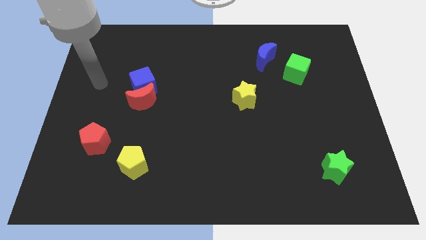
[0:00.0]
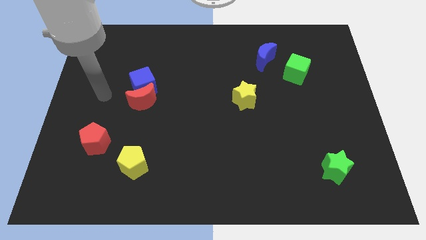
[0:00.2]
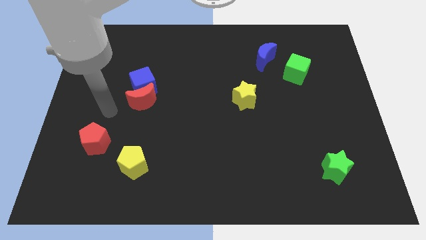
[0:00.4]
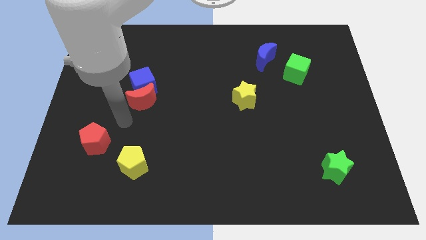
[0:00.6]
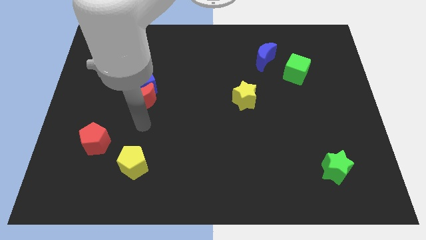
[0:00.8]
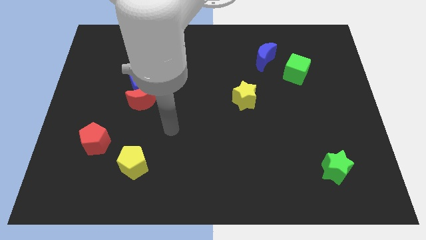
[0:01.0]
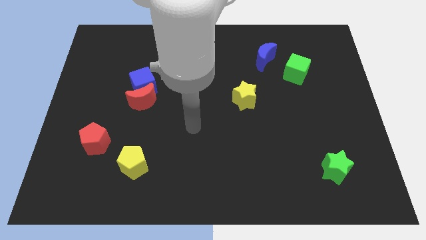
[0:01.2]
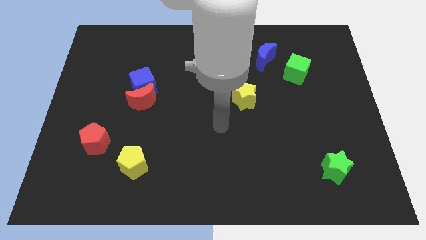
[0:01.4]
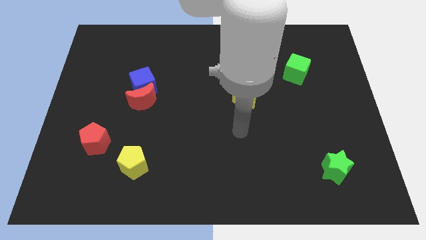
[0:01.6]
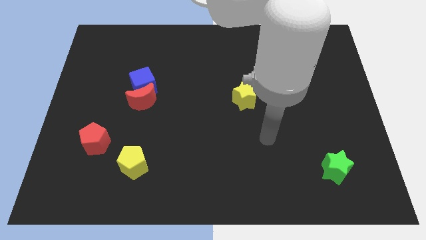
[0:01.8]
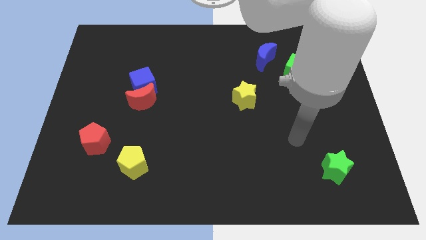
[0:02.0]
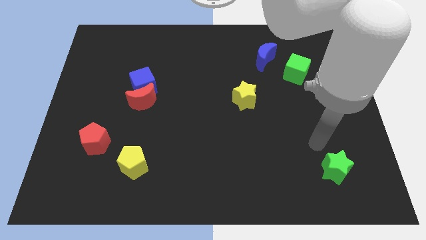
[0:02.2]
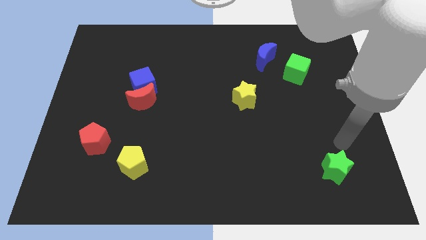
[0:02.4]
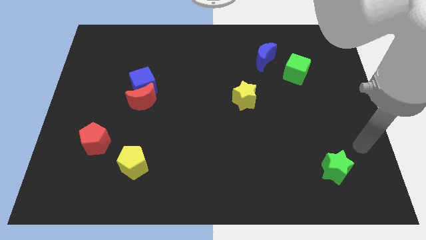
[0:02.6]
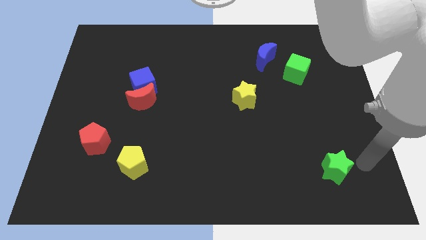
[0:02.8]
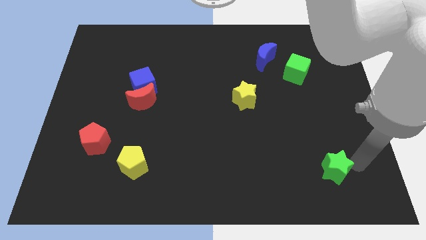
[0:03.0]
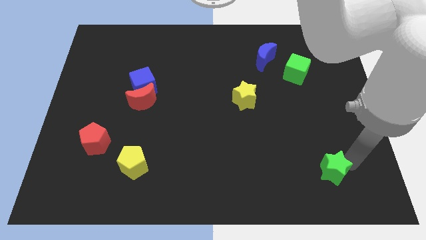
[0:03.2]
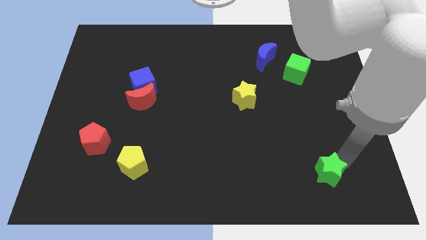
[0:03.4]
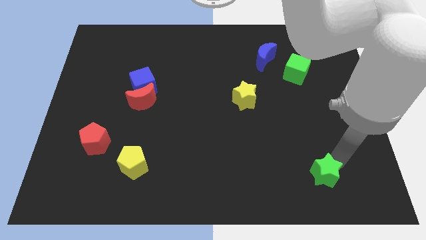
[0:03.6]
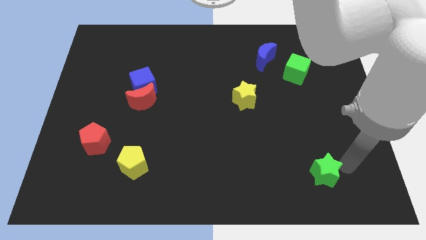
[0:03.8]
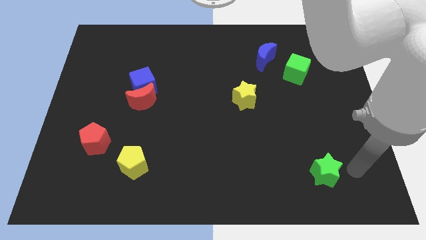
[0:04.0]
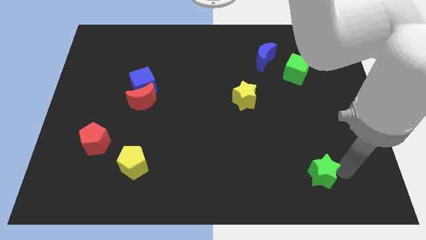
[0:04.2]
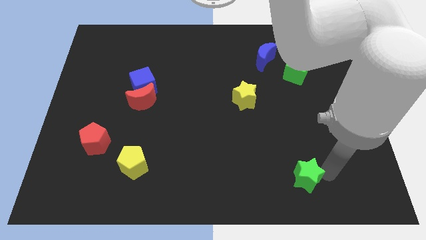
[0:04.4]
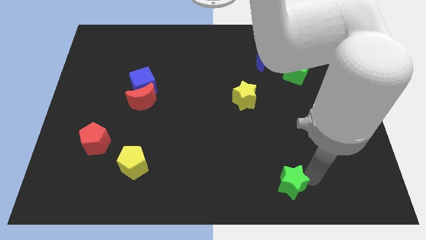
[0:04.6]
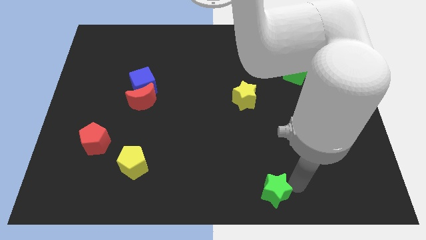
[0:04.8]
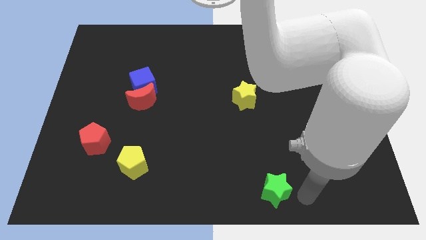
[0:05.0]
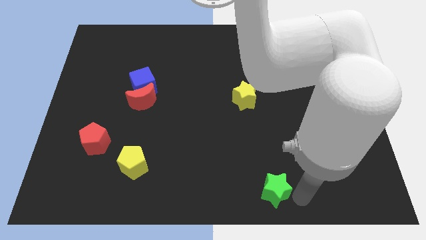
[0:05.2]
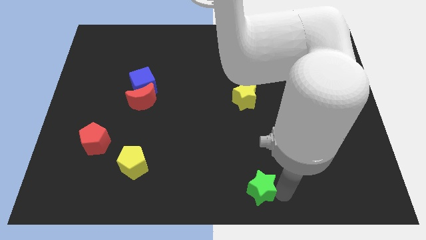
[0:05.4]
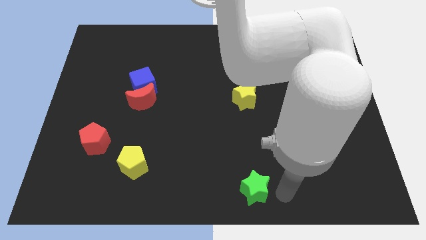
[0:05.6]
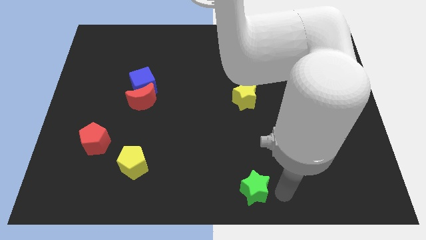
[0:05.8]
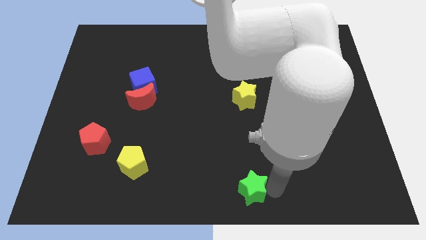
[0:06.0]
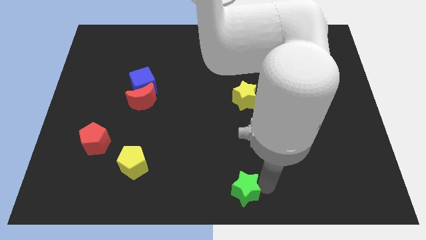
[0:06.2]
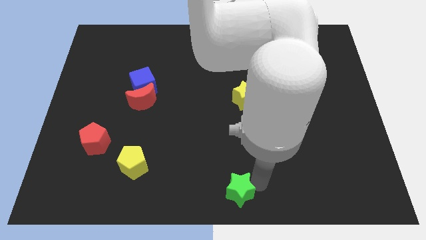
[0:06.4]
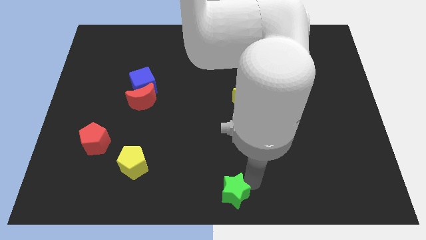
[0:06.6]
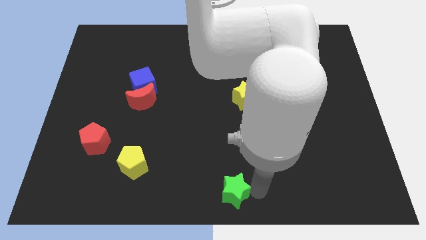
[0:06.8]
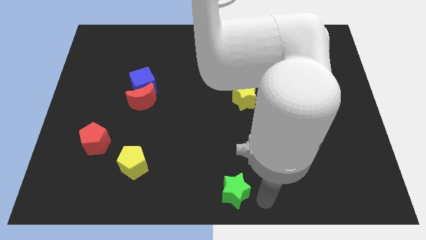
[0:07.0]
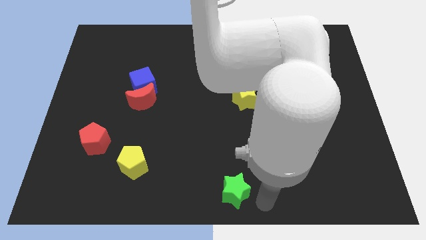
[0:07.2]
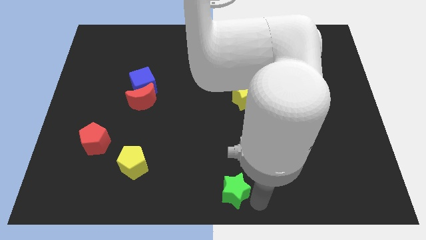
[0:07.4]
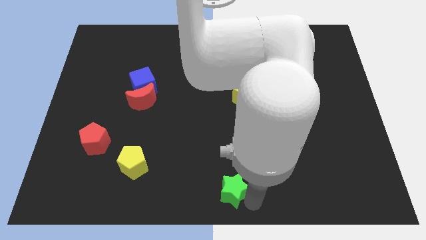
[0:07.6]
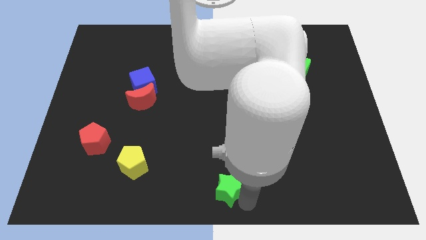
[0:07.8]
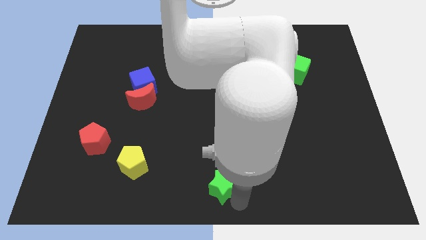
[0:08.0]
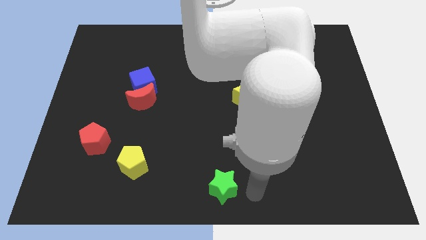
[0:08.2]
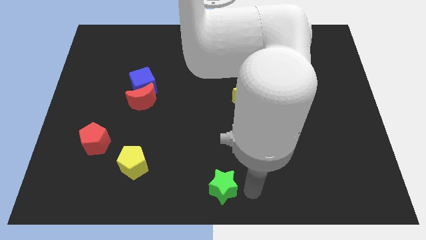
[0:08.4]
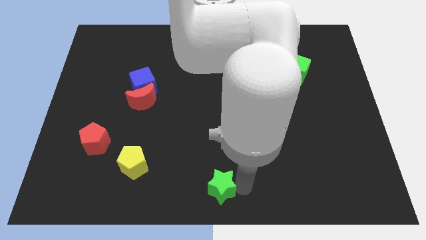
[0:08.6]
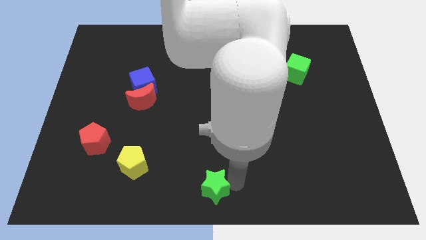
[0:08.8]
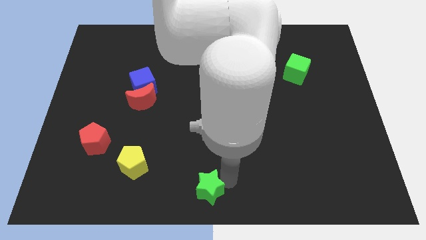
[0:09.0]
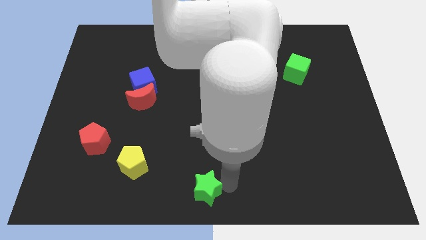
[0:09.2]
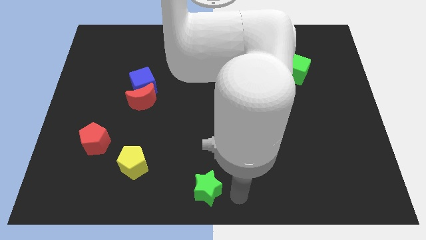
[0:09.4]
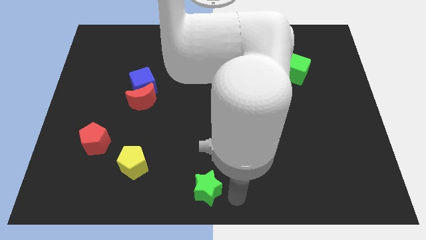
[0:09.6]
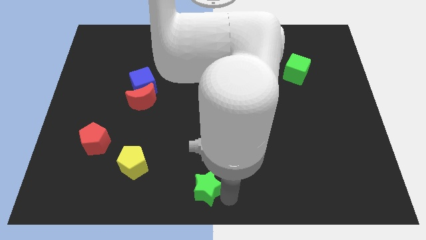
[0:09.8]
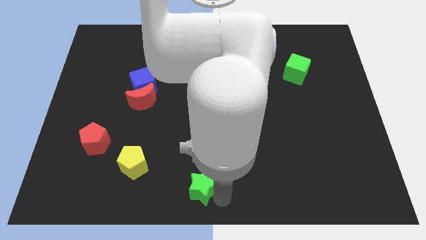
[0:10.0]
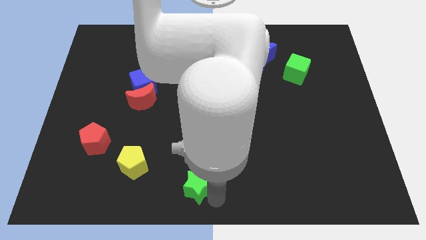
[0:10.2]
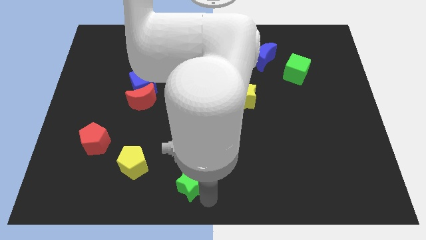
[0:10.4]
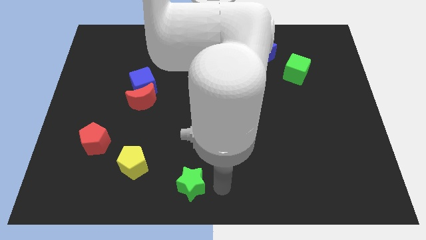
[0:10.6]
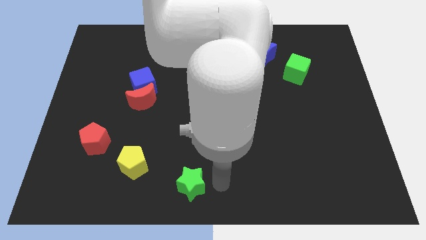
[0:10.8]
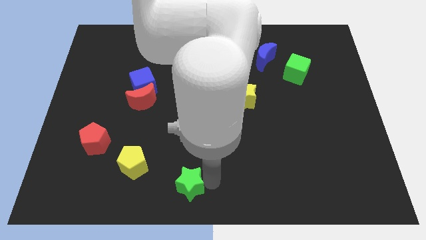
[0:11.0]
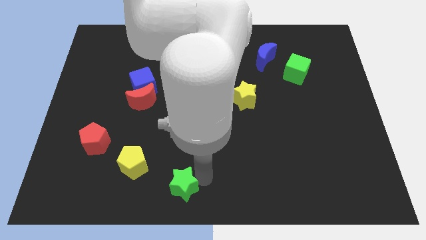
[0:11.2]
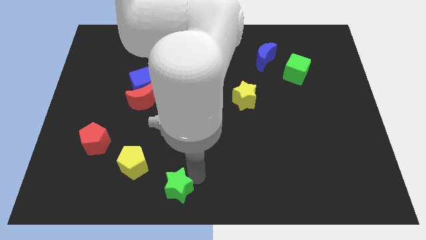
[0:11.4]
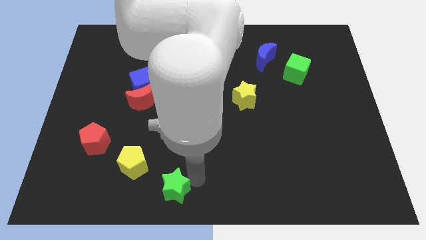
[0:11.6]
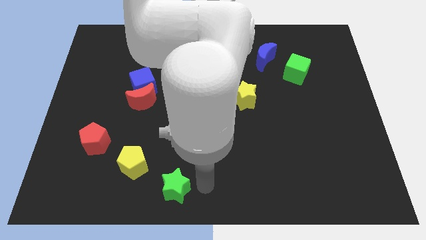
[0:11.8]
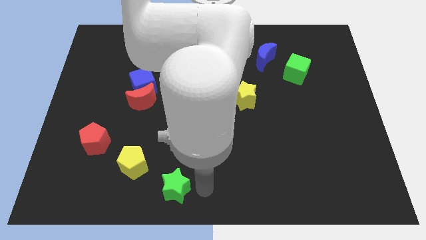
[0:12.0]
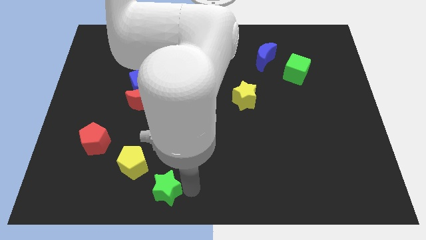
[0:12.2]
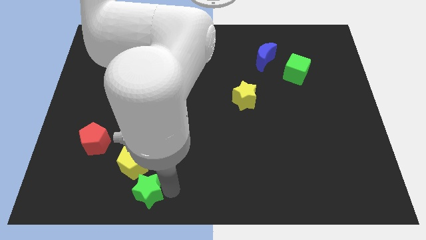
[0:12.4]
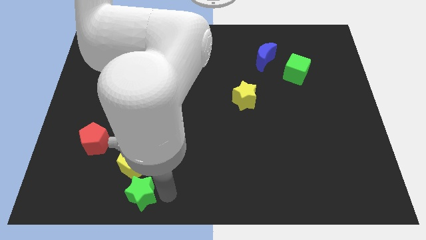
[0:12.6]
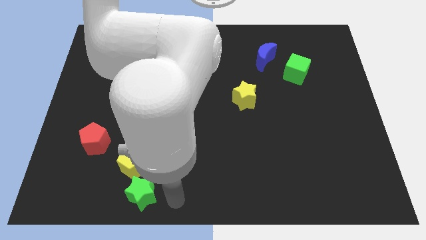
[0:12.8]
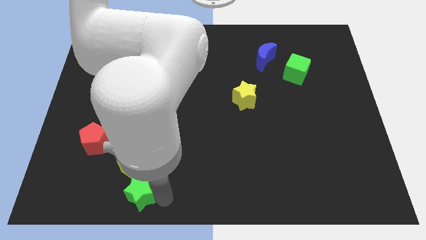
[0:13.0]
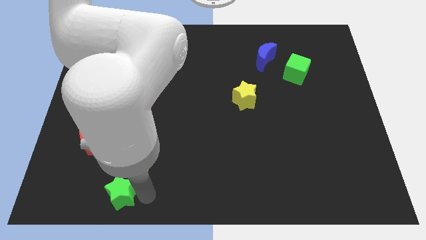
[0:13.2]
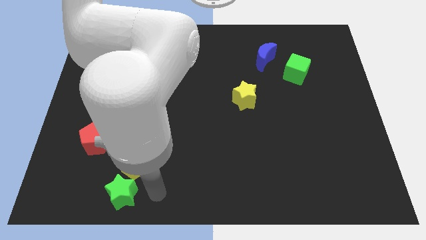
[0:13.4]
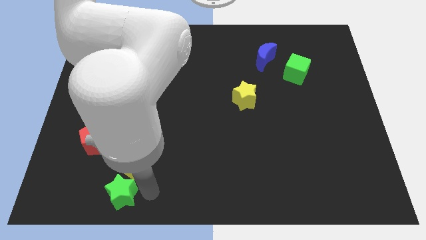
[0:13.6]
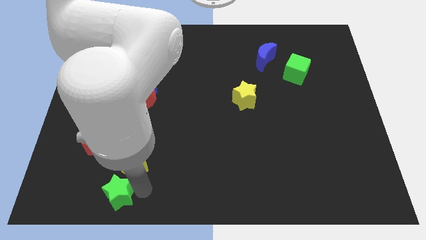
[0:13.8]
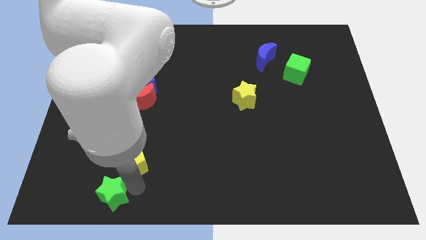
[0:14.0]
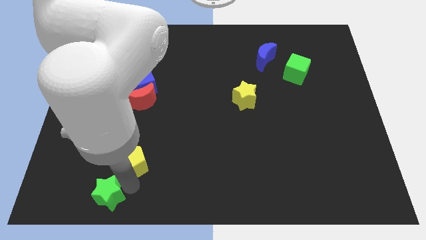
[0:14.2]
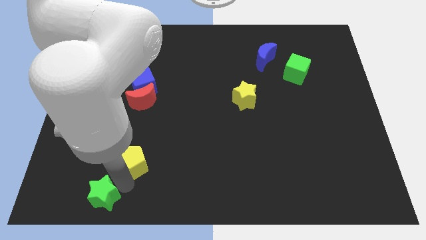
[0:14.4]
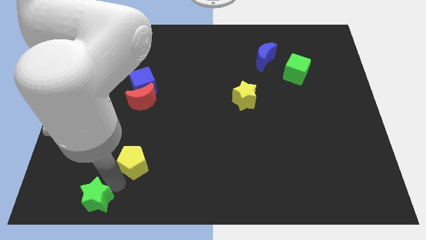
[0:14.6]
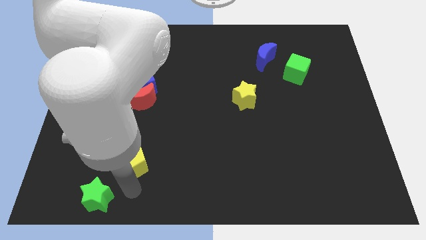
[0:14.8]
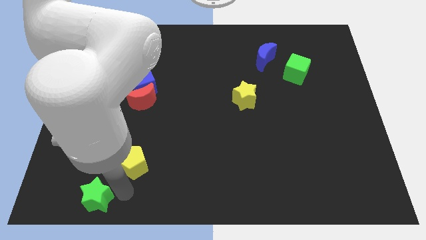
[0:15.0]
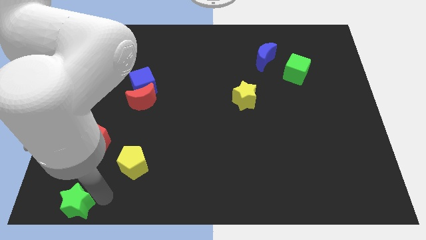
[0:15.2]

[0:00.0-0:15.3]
slide the green star to the lower left corner
